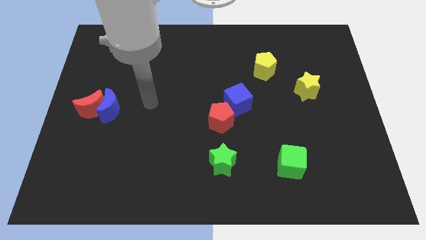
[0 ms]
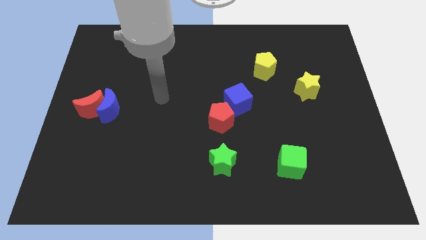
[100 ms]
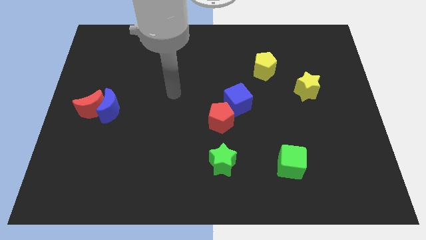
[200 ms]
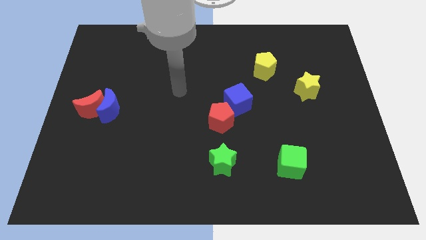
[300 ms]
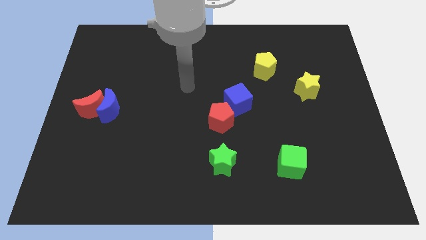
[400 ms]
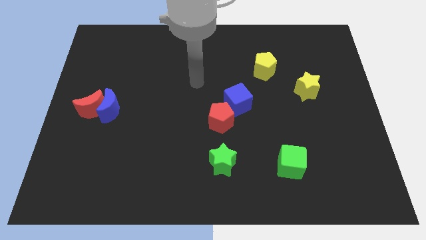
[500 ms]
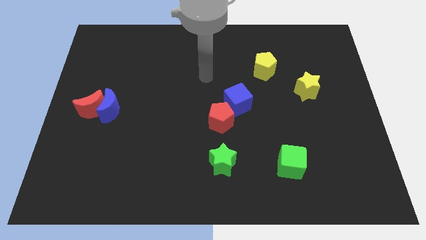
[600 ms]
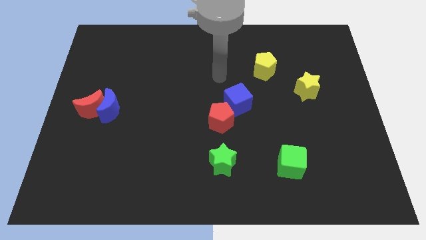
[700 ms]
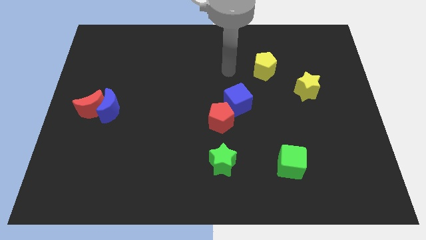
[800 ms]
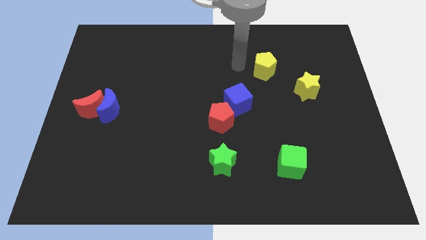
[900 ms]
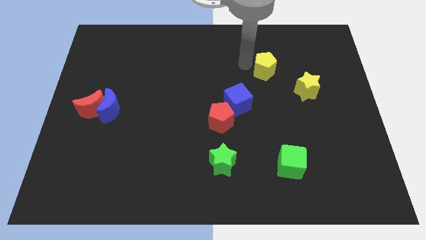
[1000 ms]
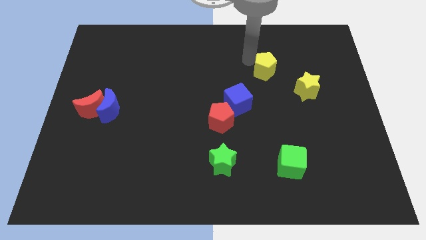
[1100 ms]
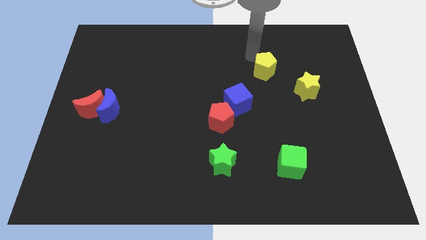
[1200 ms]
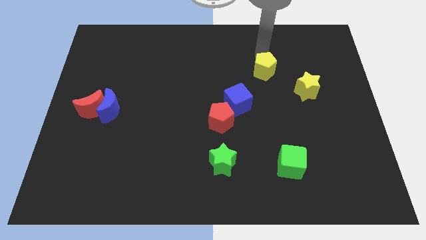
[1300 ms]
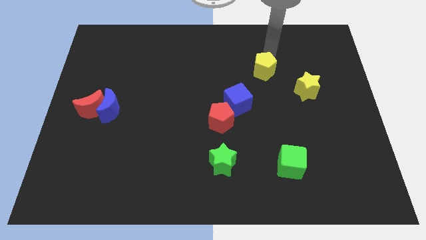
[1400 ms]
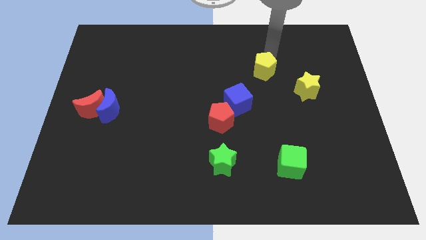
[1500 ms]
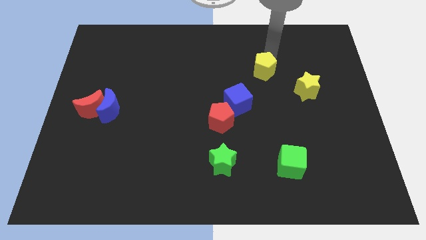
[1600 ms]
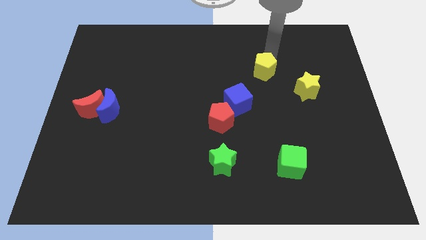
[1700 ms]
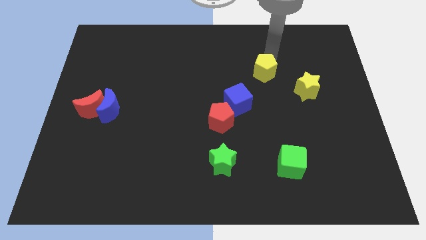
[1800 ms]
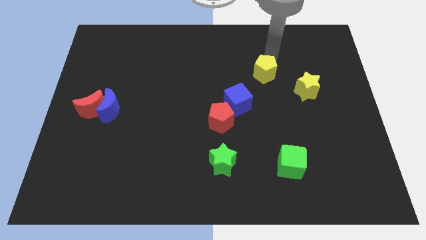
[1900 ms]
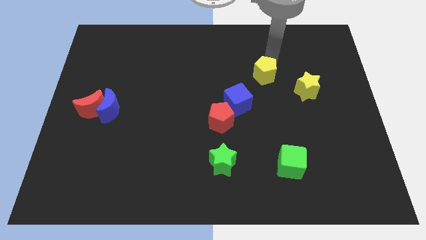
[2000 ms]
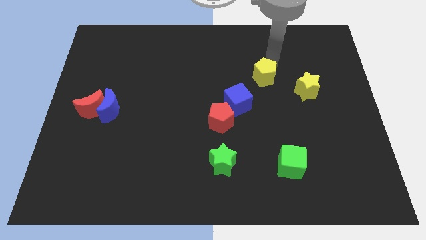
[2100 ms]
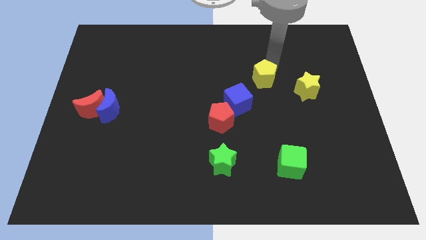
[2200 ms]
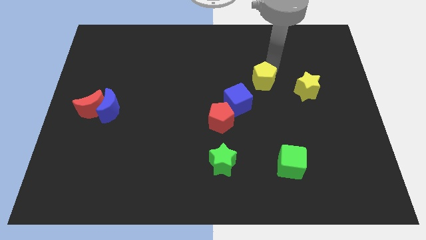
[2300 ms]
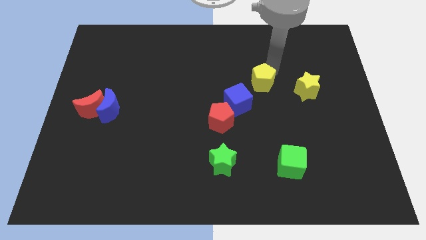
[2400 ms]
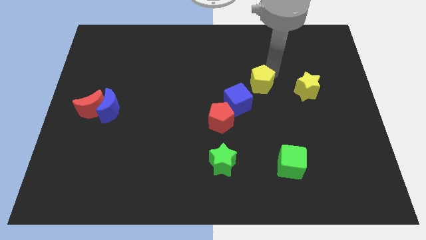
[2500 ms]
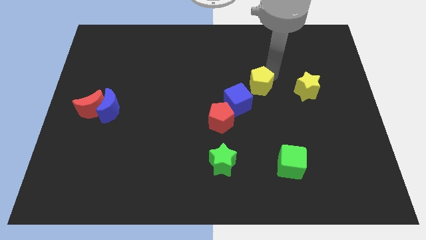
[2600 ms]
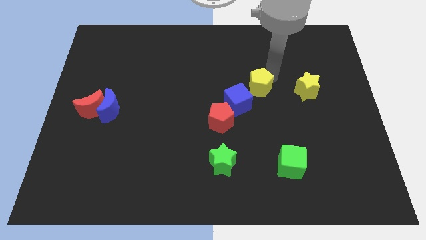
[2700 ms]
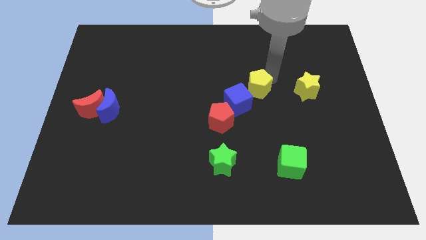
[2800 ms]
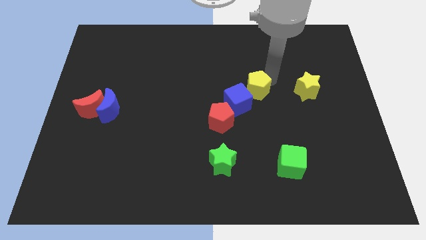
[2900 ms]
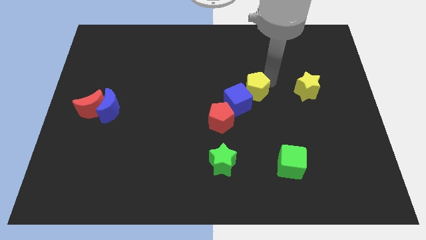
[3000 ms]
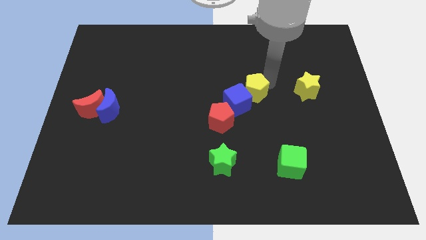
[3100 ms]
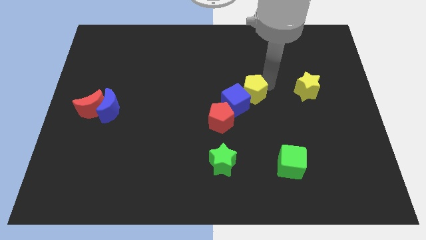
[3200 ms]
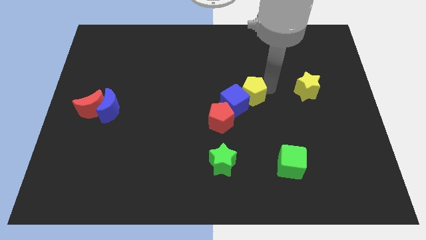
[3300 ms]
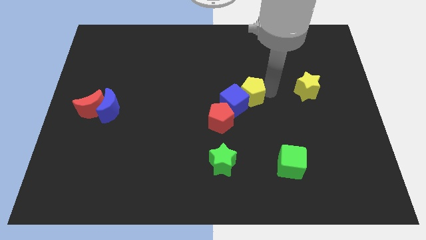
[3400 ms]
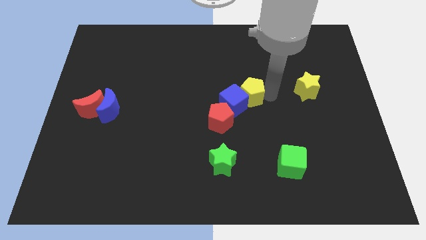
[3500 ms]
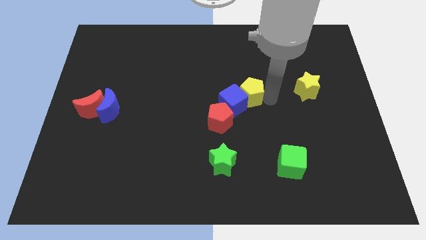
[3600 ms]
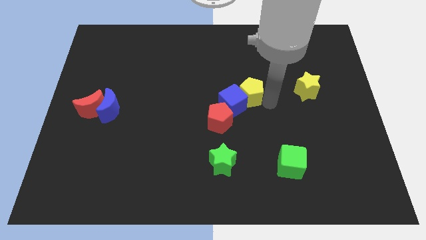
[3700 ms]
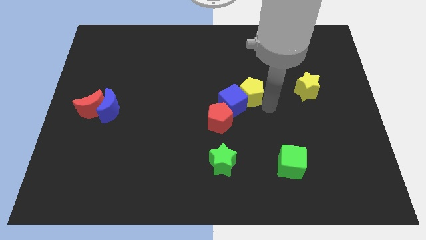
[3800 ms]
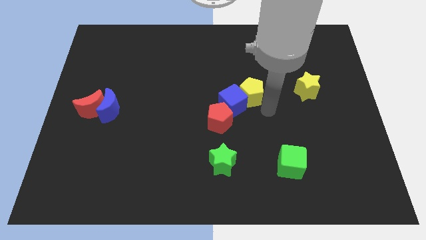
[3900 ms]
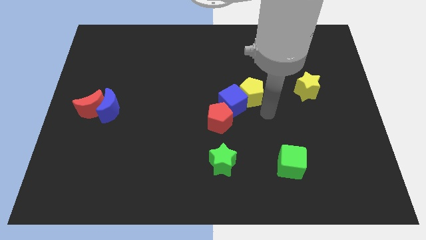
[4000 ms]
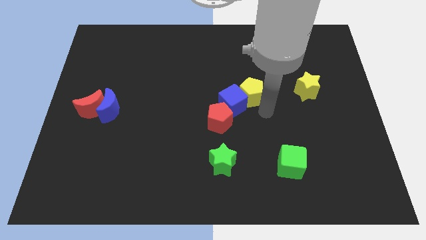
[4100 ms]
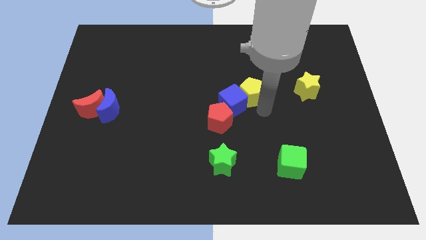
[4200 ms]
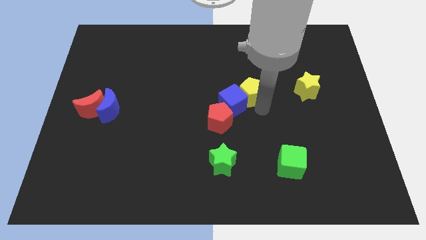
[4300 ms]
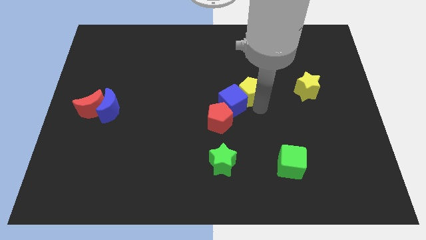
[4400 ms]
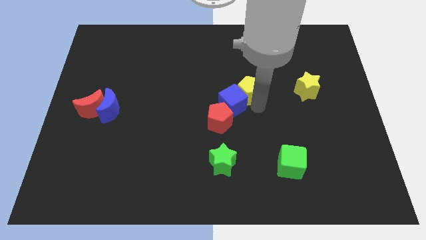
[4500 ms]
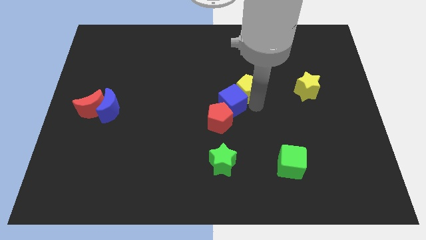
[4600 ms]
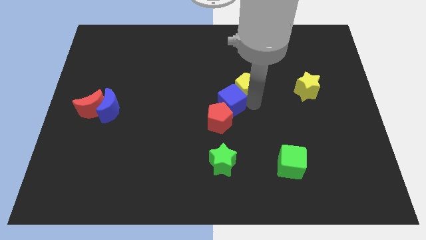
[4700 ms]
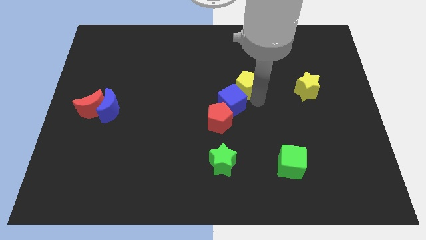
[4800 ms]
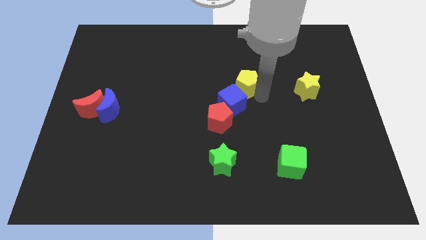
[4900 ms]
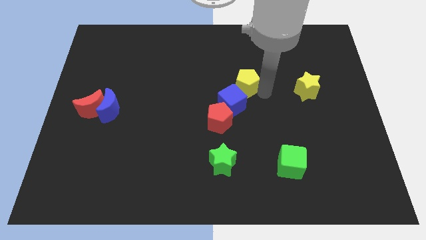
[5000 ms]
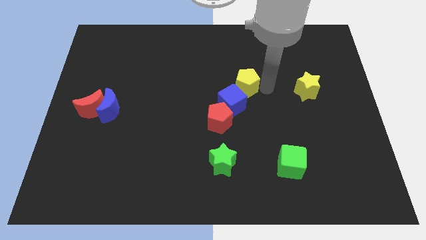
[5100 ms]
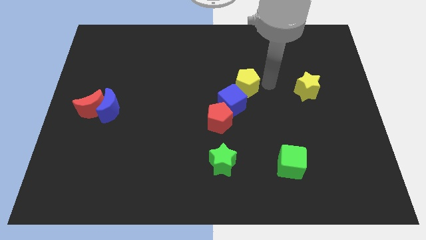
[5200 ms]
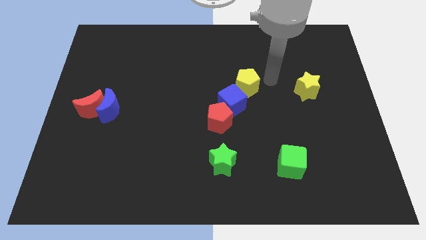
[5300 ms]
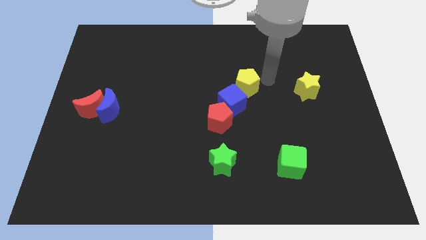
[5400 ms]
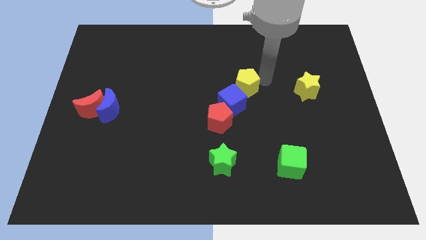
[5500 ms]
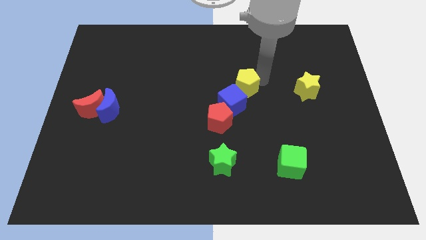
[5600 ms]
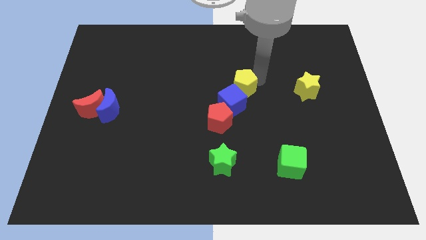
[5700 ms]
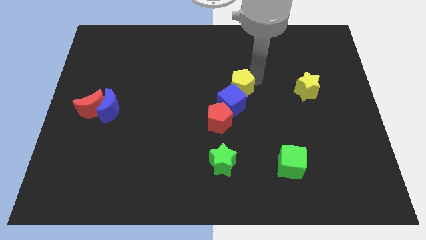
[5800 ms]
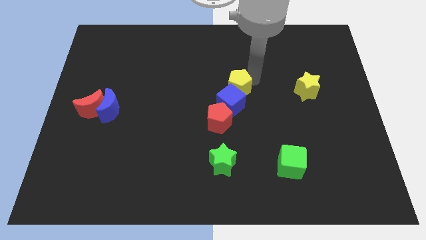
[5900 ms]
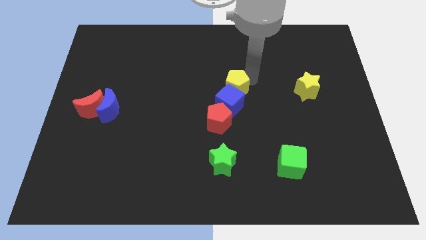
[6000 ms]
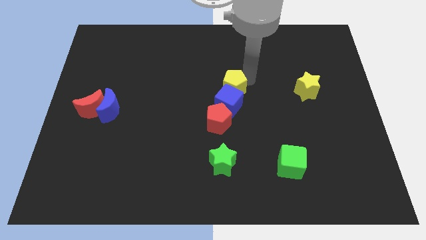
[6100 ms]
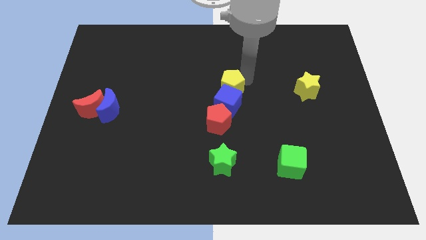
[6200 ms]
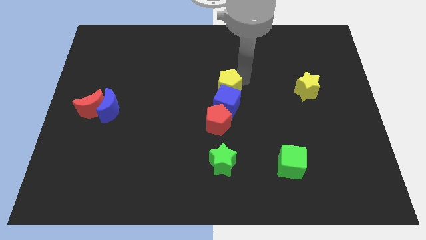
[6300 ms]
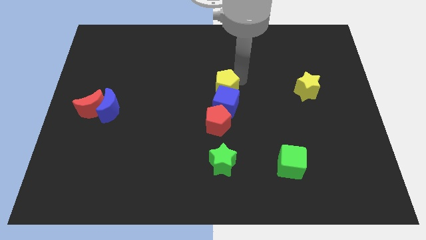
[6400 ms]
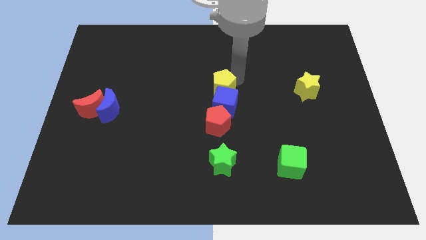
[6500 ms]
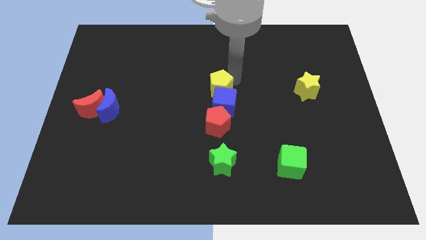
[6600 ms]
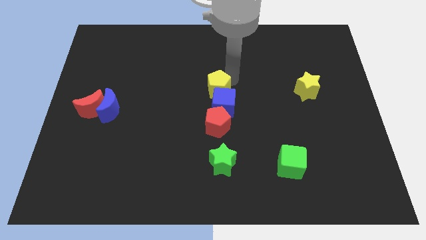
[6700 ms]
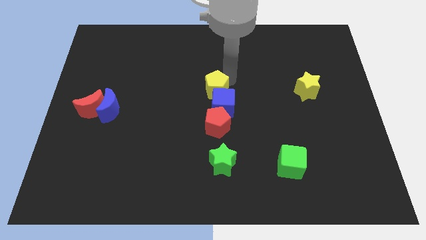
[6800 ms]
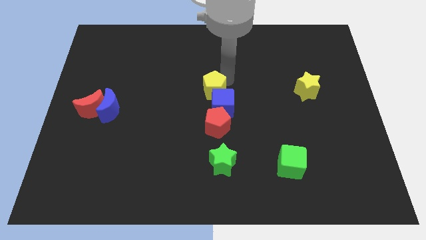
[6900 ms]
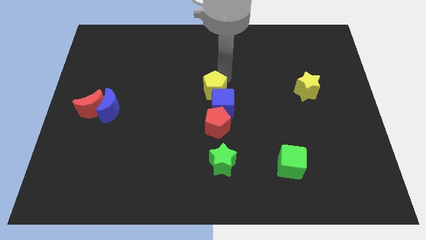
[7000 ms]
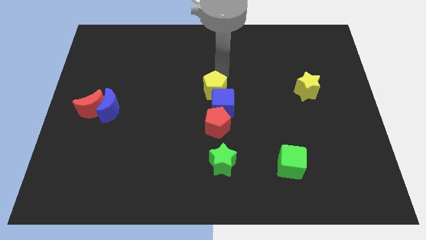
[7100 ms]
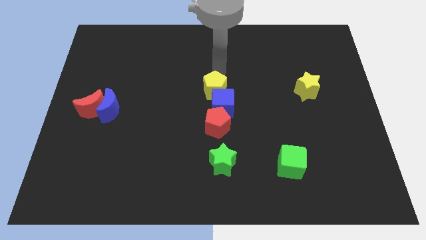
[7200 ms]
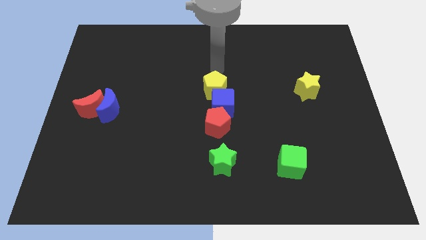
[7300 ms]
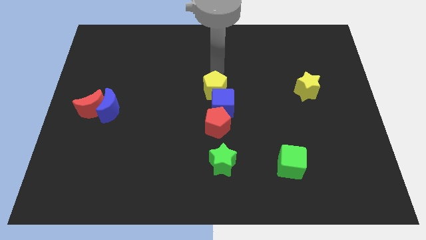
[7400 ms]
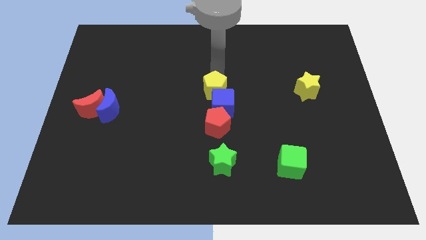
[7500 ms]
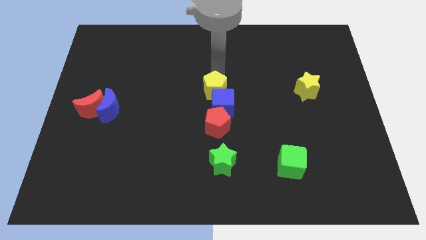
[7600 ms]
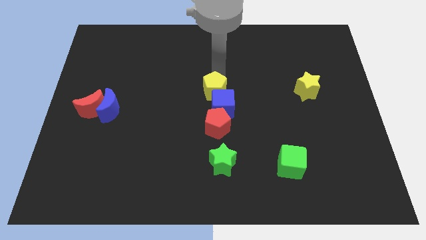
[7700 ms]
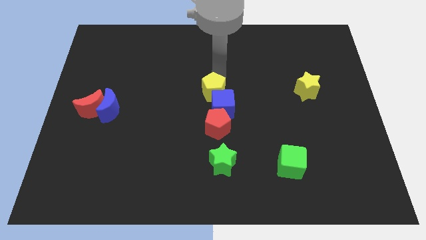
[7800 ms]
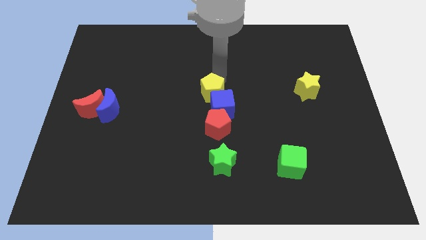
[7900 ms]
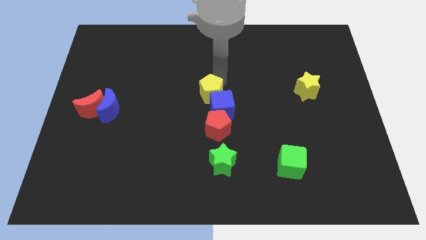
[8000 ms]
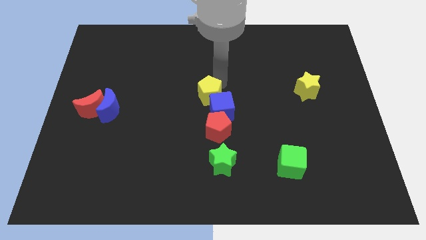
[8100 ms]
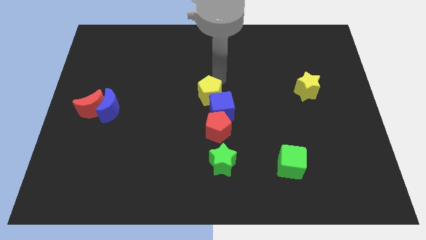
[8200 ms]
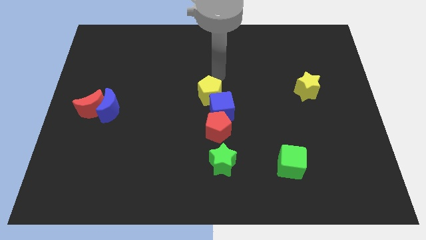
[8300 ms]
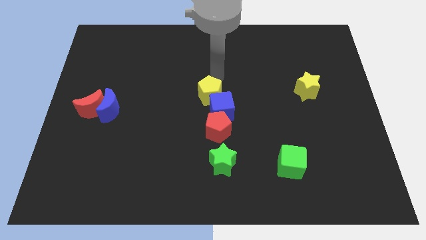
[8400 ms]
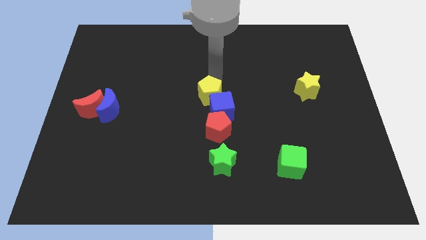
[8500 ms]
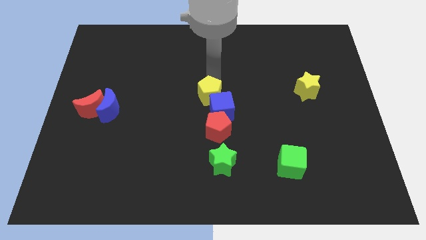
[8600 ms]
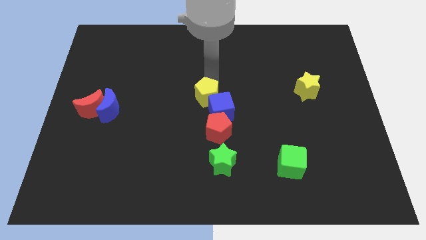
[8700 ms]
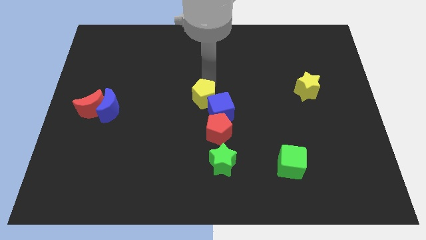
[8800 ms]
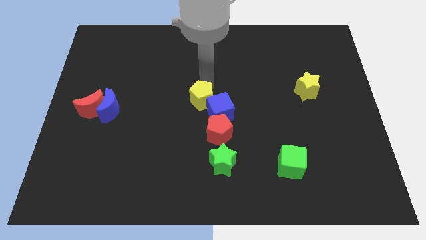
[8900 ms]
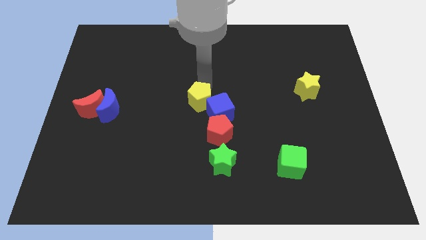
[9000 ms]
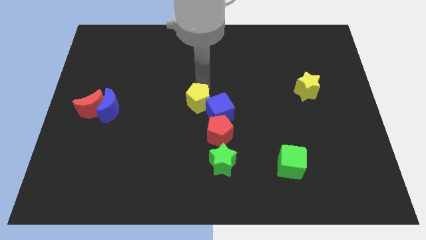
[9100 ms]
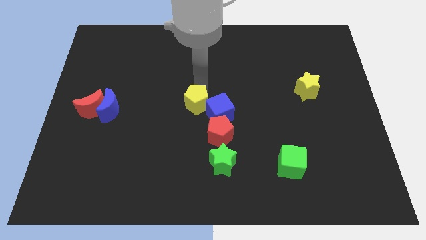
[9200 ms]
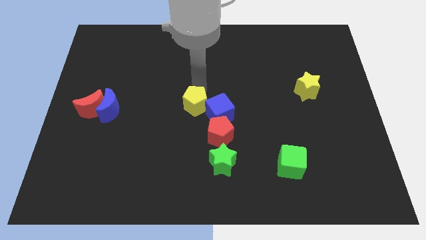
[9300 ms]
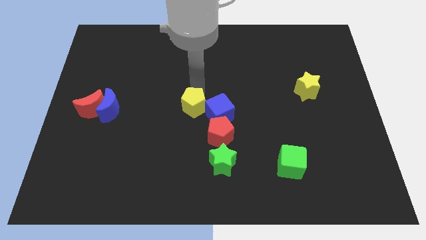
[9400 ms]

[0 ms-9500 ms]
move the yellow pentagon down and then left
